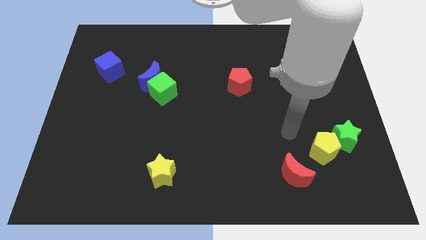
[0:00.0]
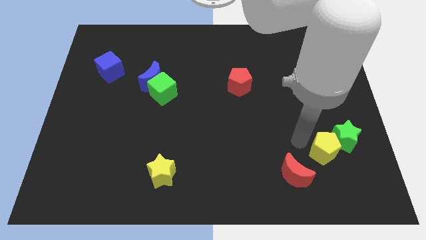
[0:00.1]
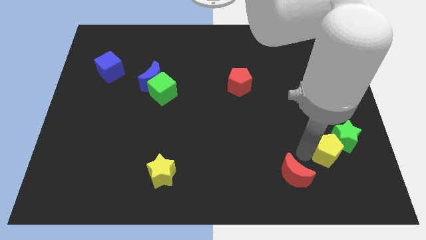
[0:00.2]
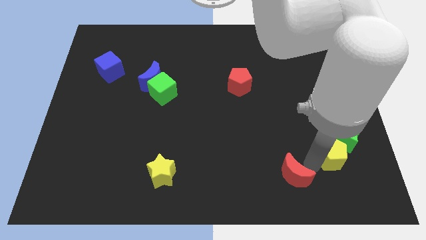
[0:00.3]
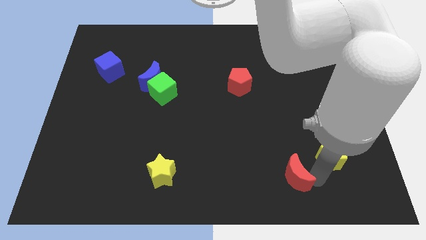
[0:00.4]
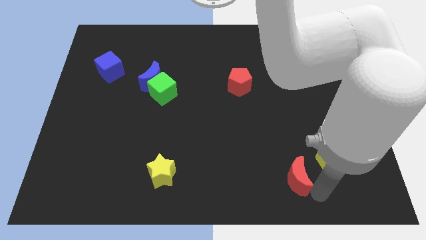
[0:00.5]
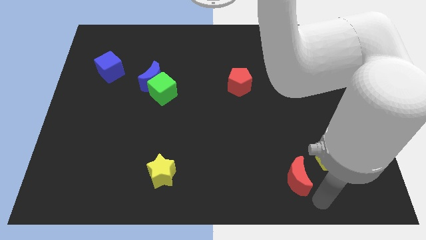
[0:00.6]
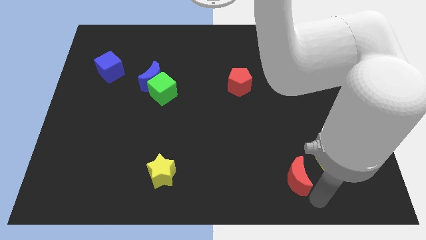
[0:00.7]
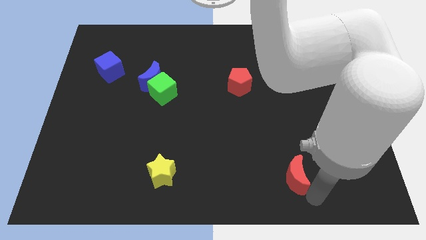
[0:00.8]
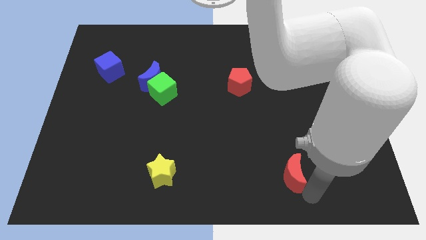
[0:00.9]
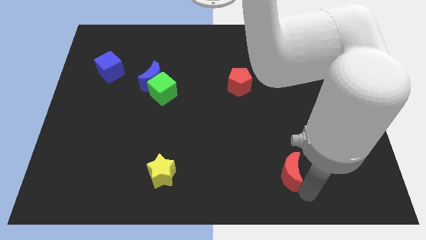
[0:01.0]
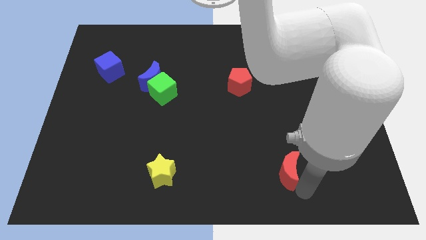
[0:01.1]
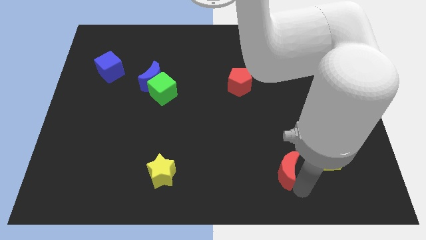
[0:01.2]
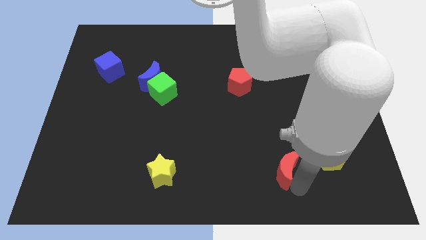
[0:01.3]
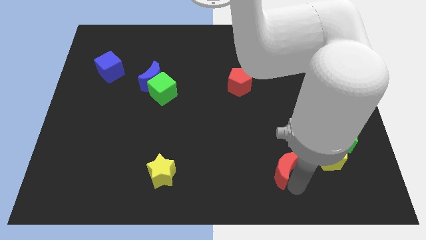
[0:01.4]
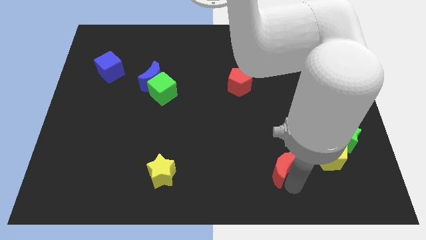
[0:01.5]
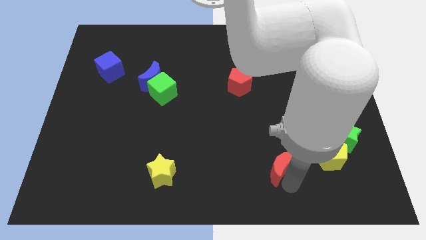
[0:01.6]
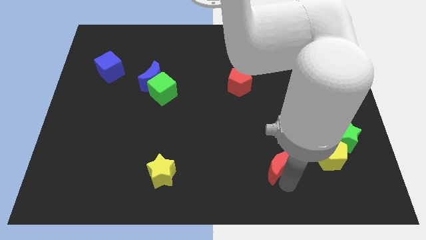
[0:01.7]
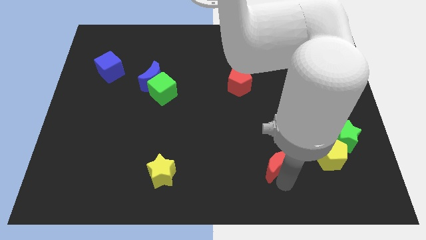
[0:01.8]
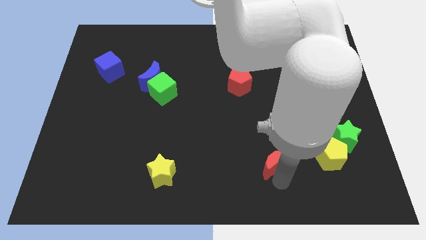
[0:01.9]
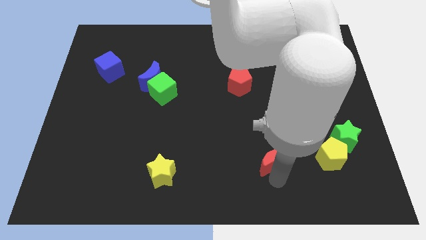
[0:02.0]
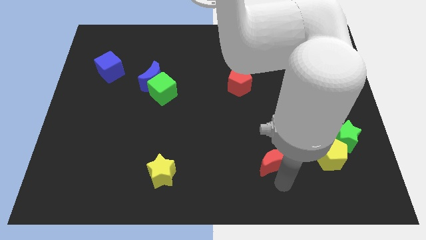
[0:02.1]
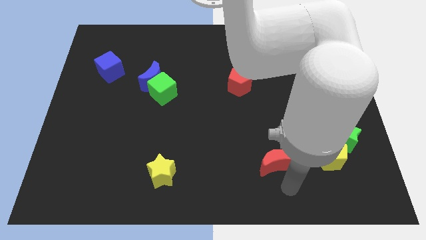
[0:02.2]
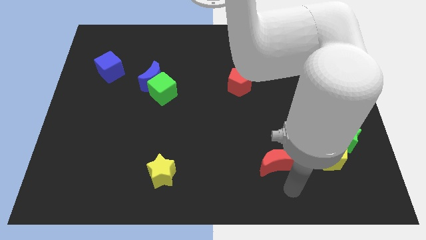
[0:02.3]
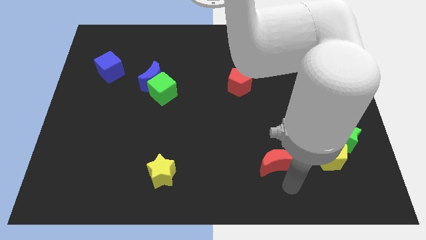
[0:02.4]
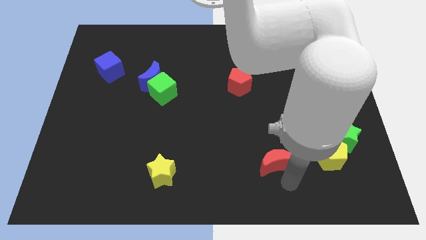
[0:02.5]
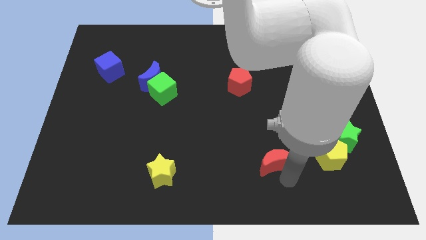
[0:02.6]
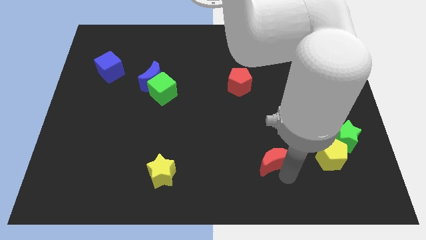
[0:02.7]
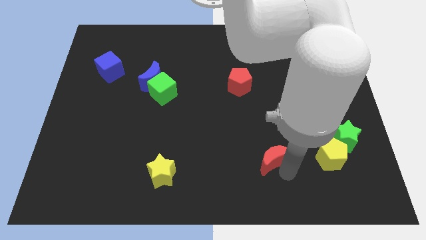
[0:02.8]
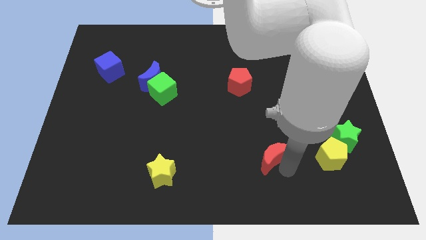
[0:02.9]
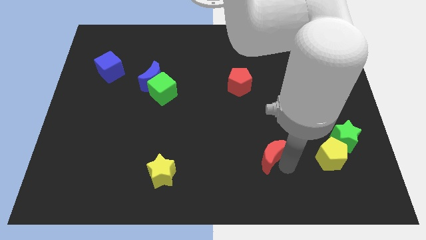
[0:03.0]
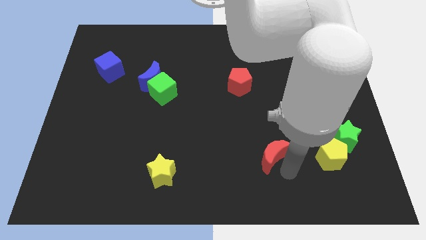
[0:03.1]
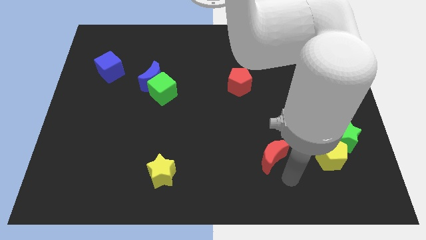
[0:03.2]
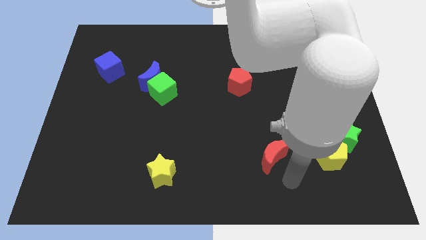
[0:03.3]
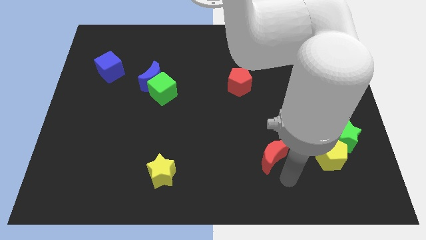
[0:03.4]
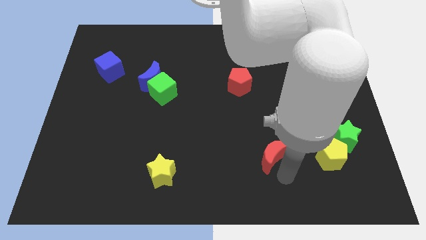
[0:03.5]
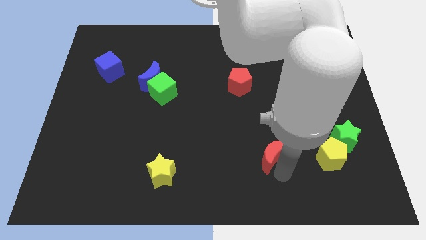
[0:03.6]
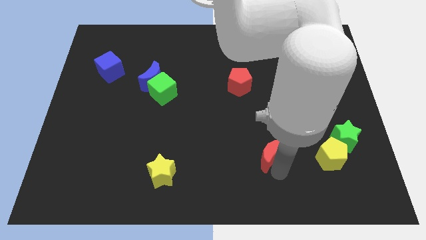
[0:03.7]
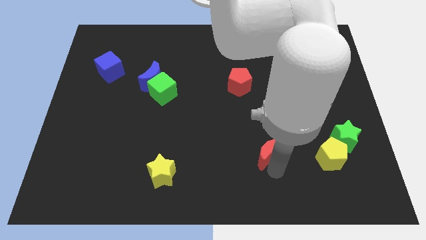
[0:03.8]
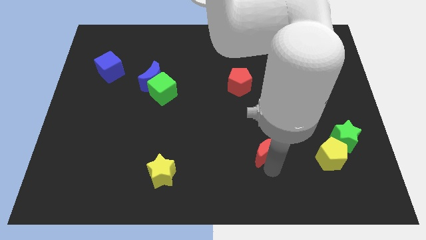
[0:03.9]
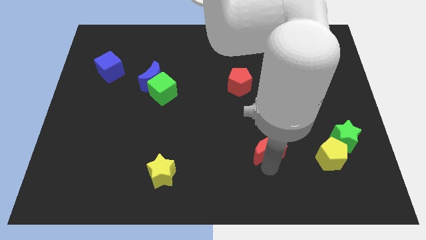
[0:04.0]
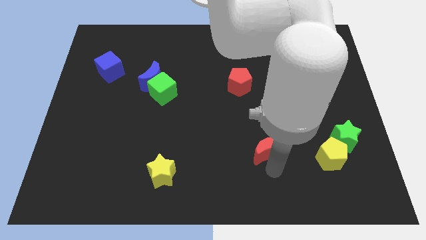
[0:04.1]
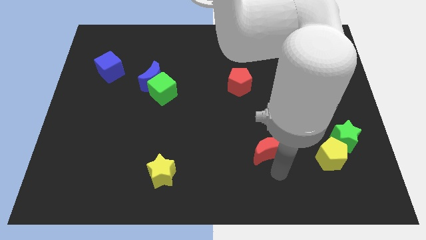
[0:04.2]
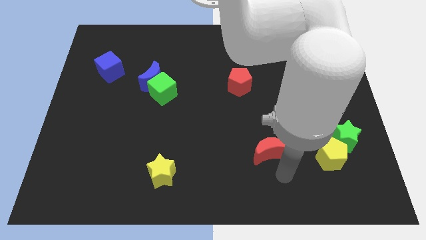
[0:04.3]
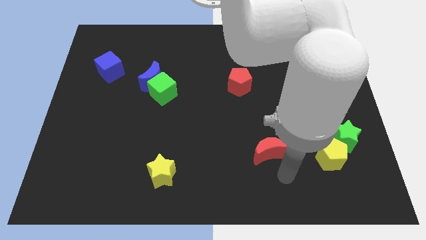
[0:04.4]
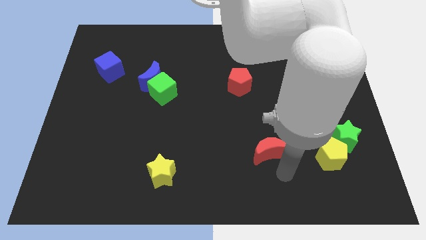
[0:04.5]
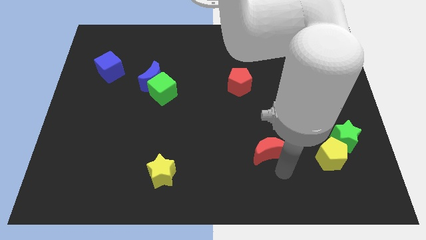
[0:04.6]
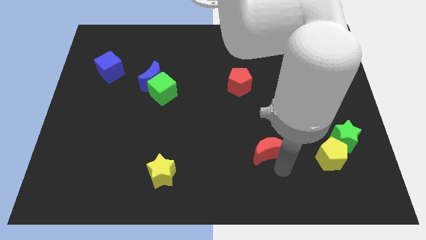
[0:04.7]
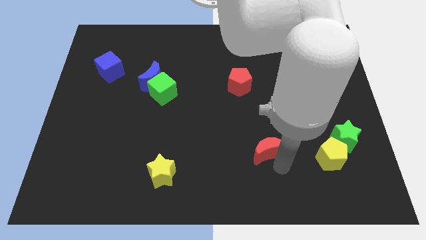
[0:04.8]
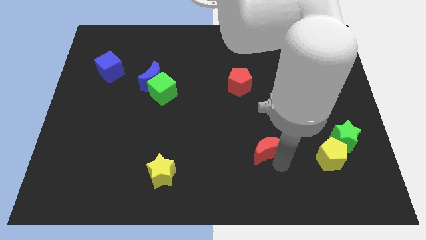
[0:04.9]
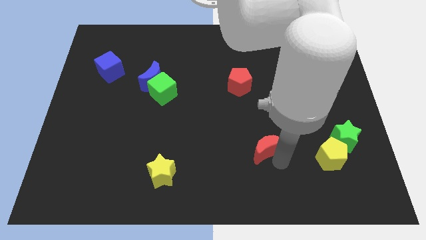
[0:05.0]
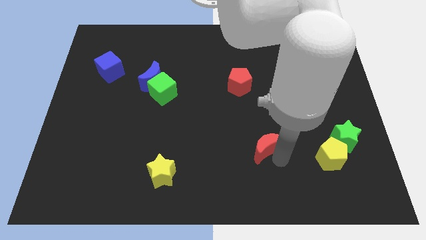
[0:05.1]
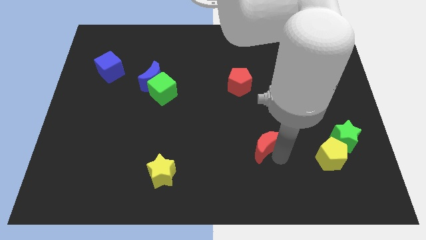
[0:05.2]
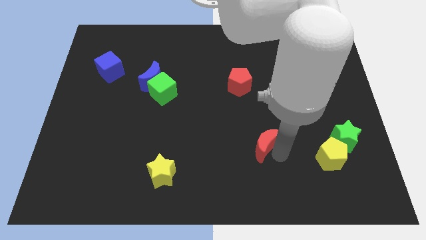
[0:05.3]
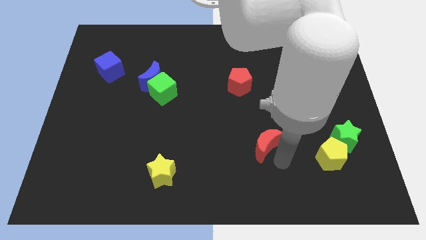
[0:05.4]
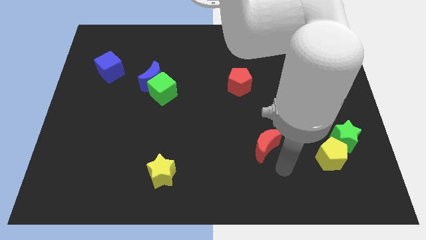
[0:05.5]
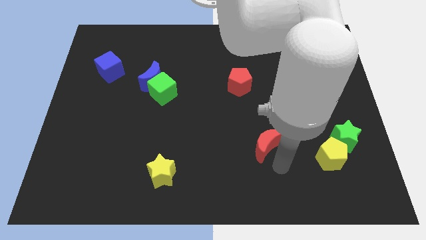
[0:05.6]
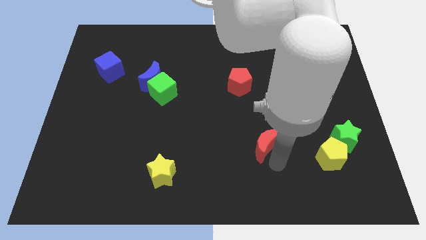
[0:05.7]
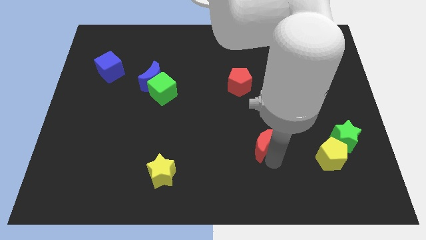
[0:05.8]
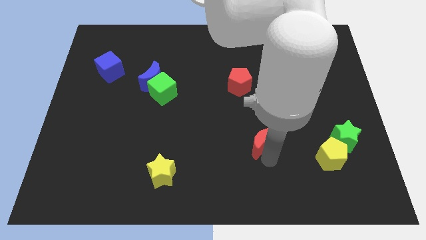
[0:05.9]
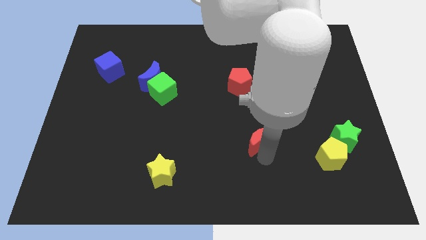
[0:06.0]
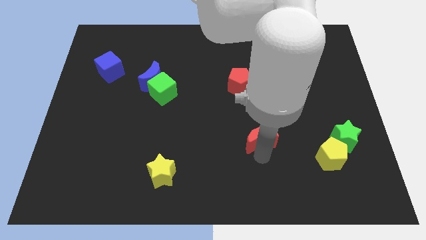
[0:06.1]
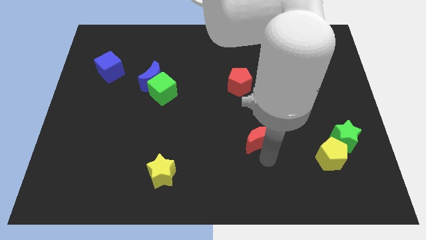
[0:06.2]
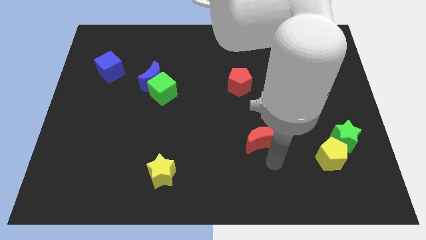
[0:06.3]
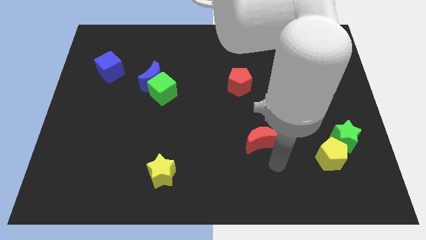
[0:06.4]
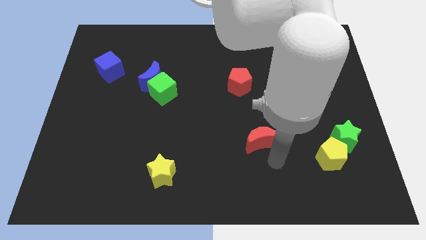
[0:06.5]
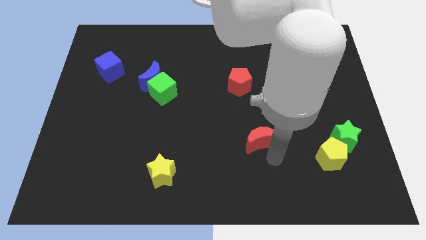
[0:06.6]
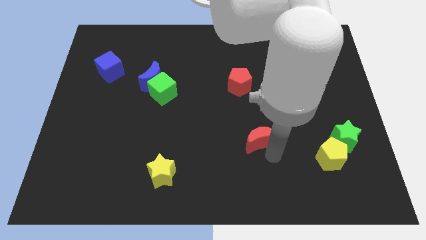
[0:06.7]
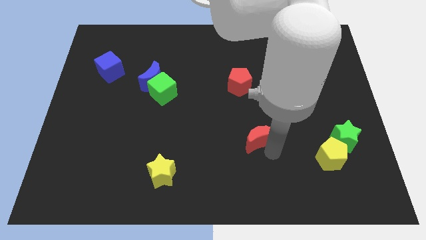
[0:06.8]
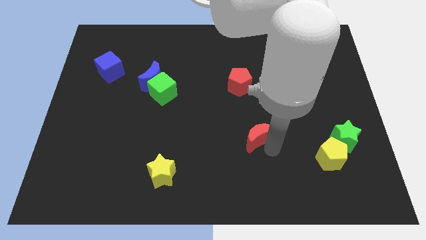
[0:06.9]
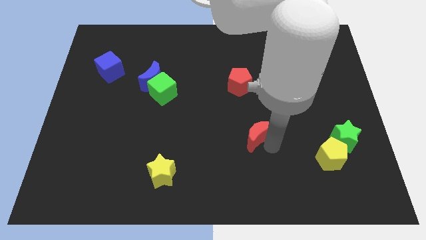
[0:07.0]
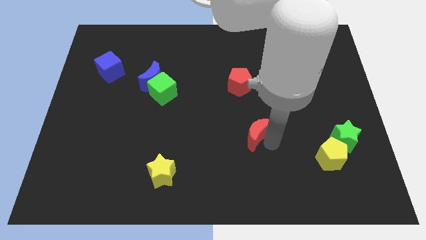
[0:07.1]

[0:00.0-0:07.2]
move the red moon below the red pentagon
